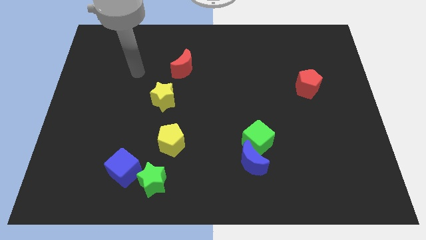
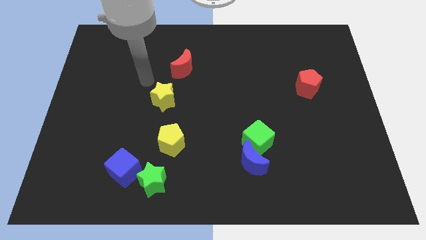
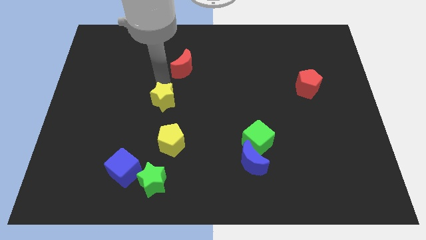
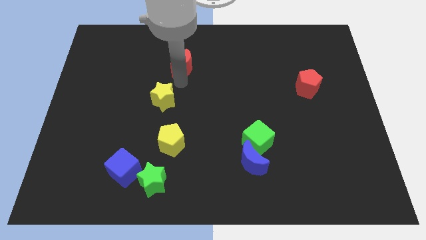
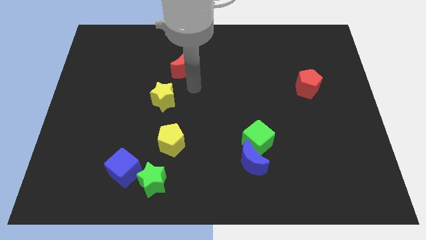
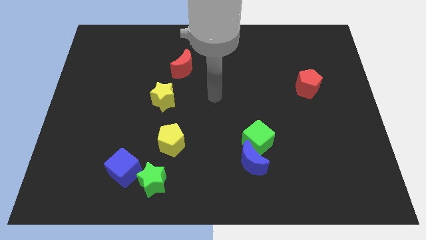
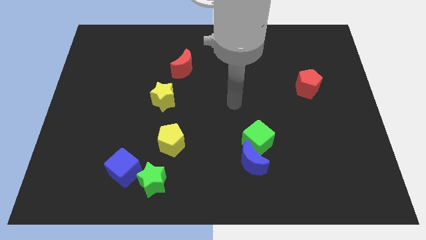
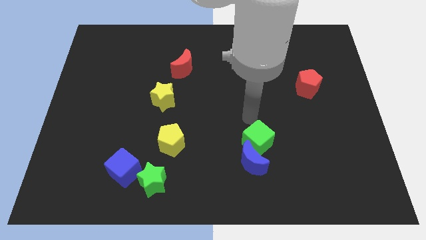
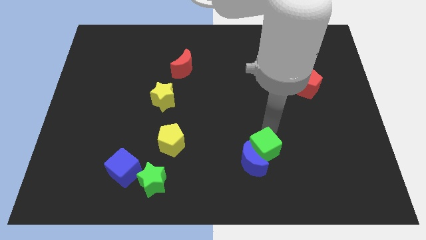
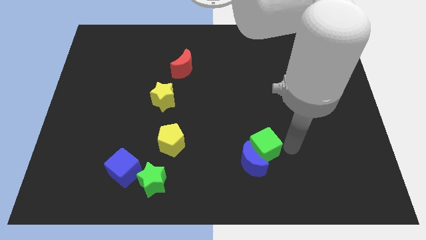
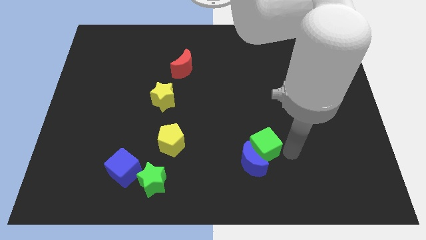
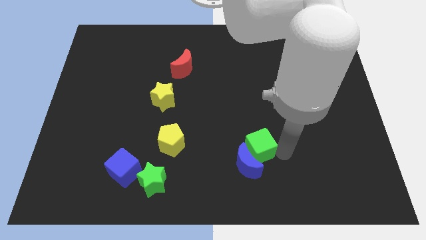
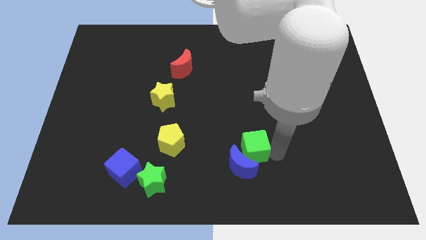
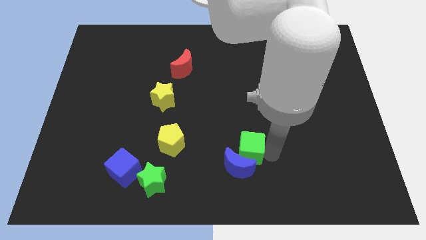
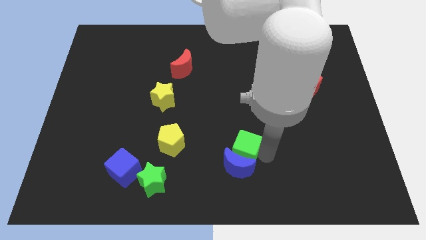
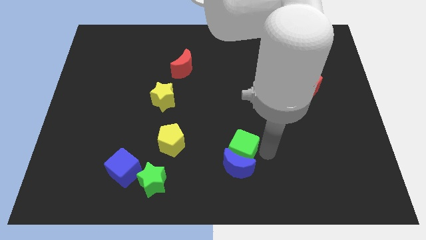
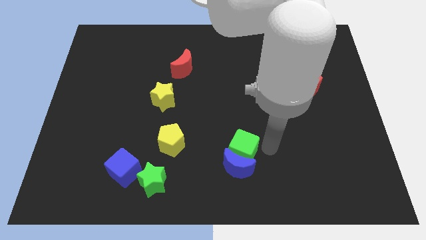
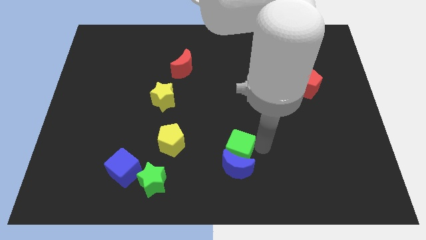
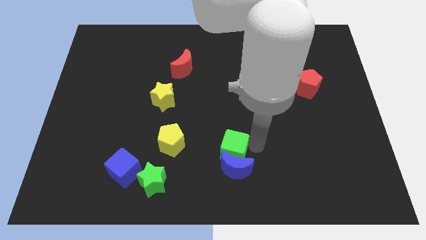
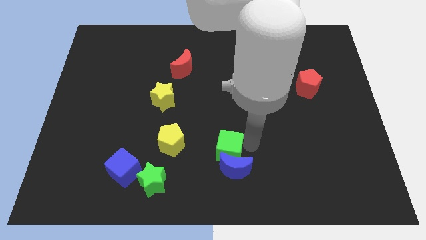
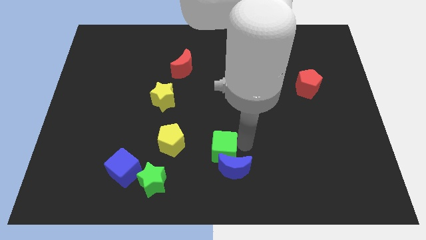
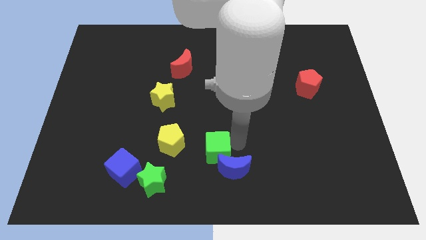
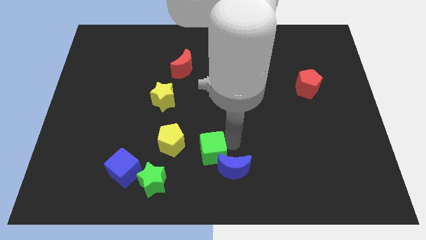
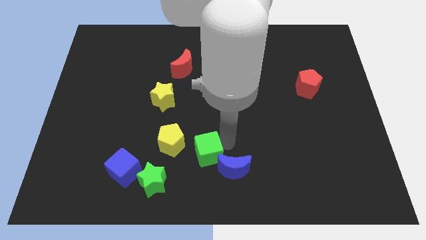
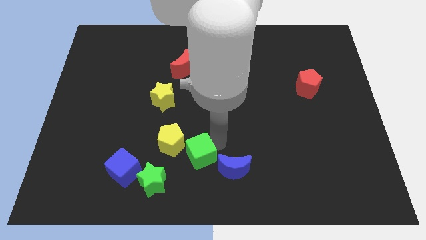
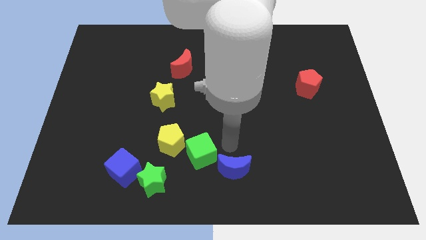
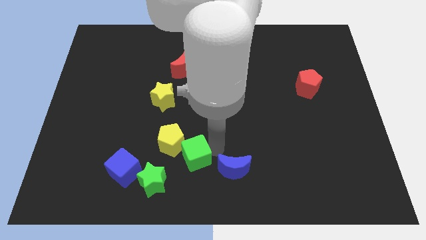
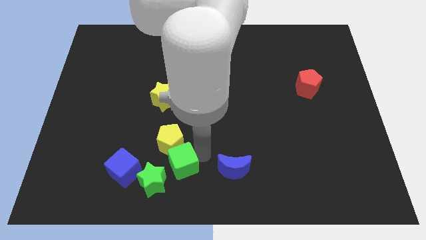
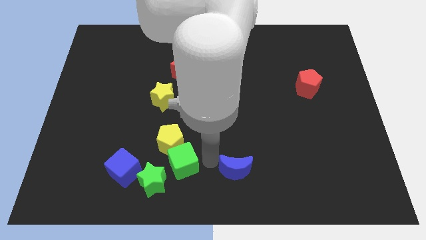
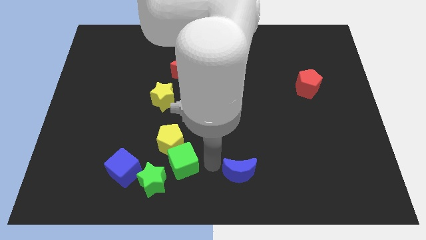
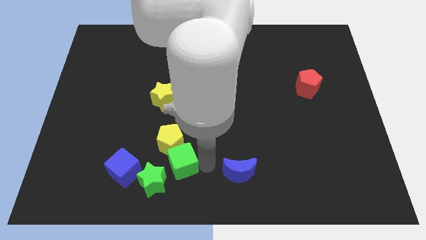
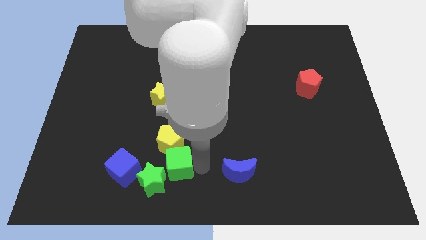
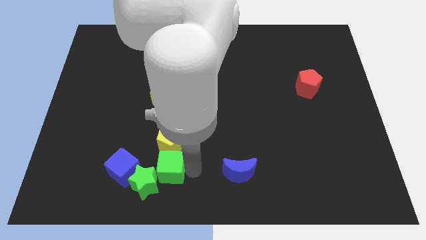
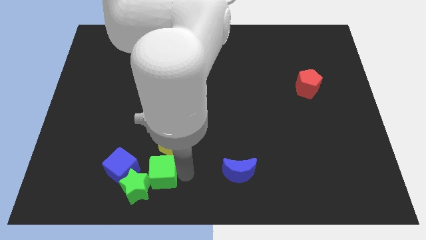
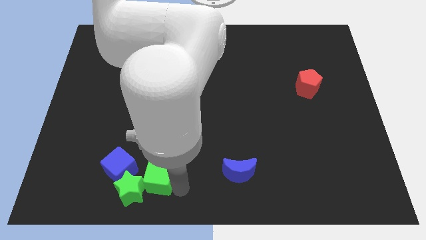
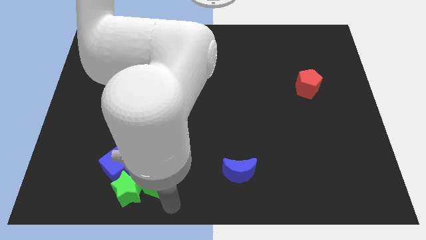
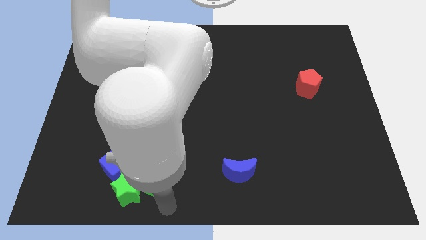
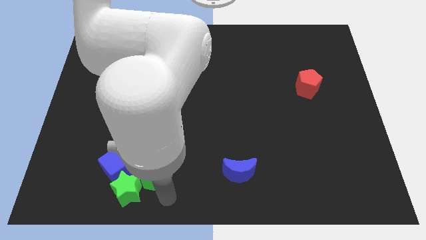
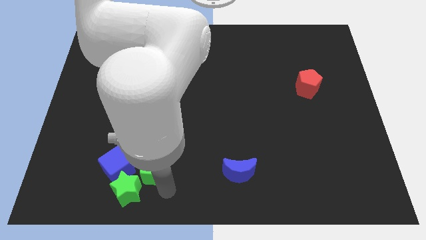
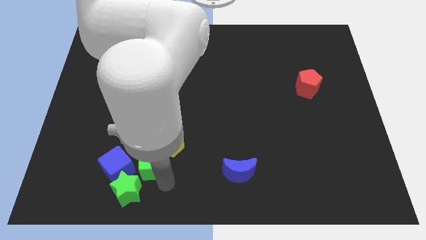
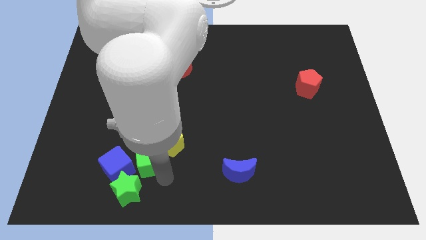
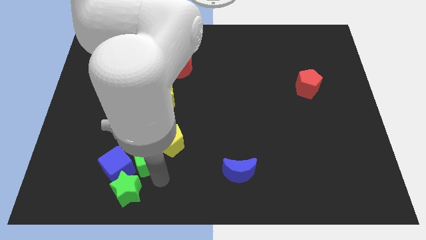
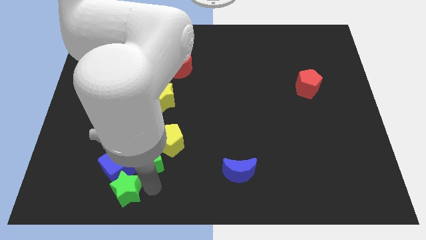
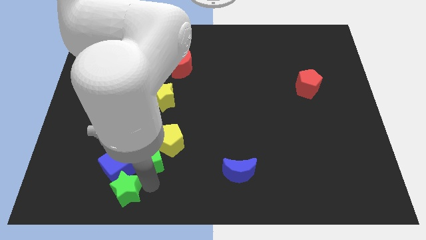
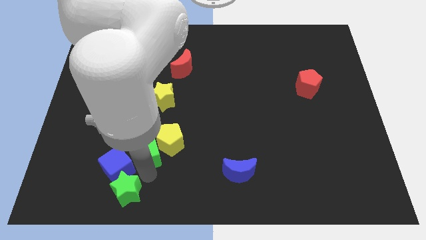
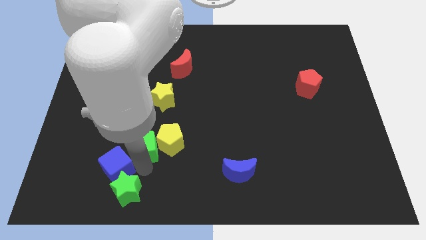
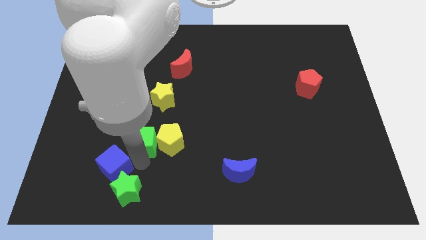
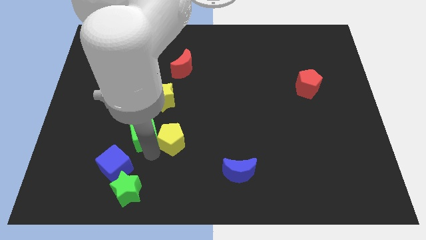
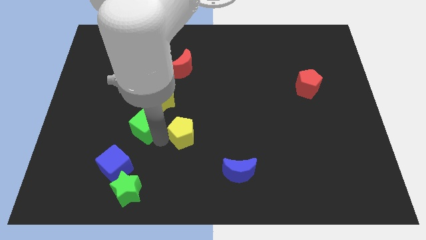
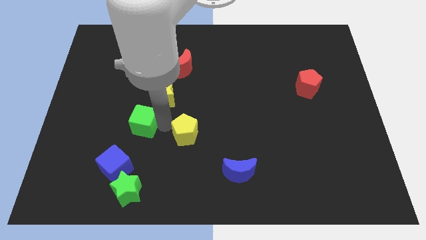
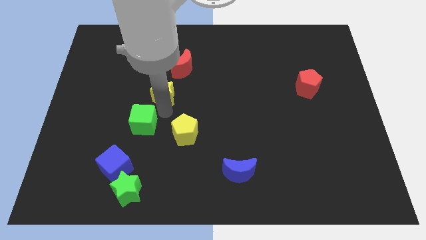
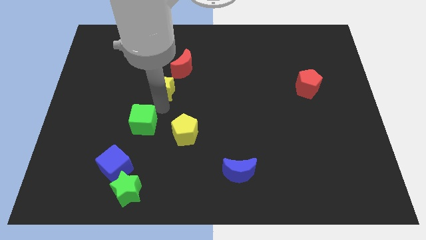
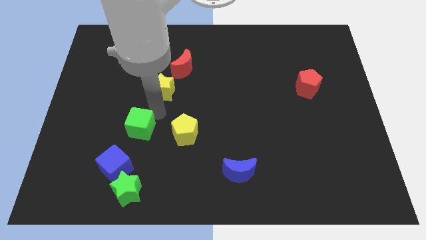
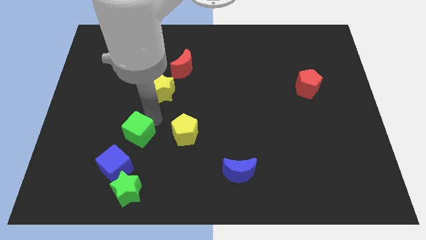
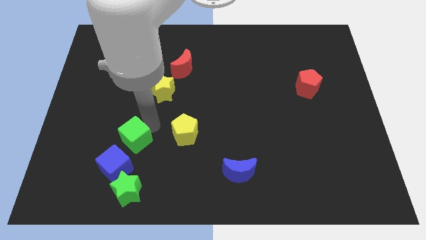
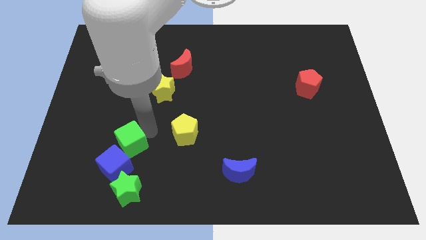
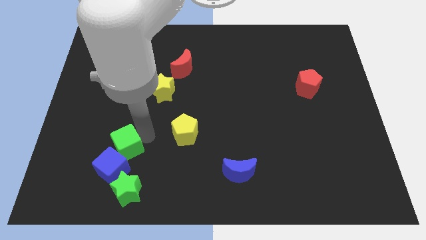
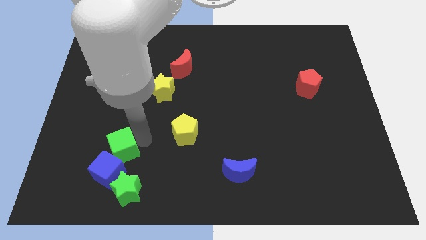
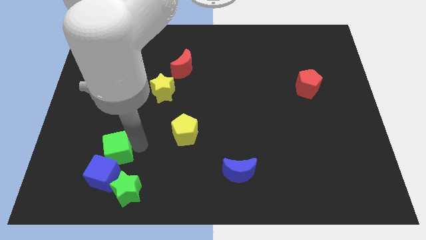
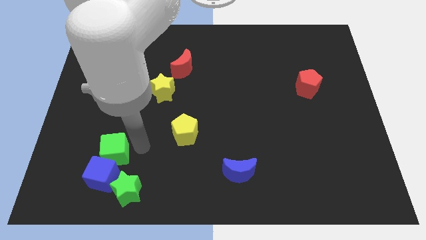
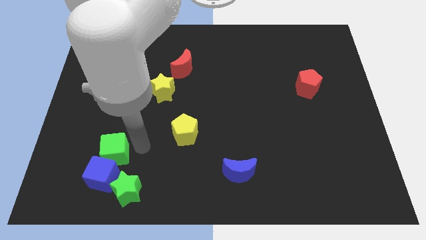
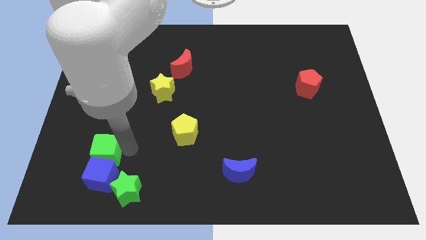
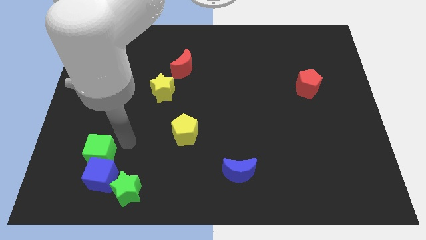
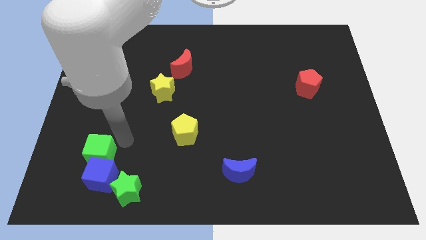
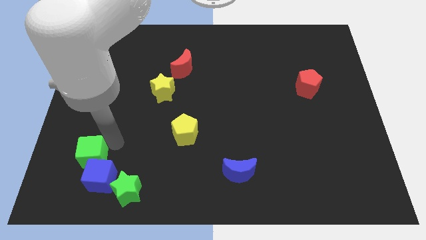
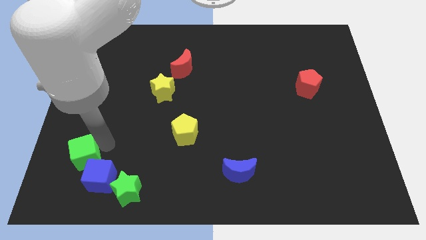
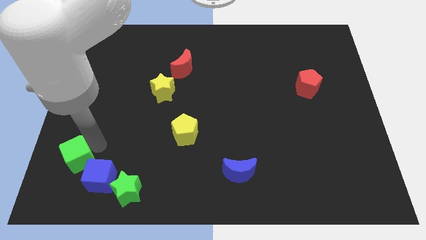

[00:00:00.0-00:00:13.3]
move the green cube to the left of the blue cube
